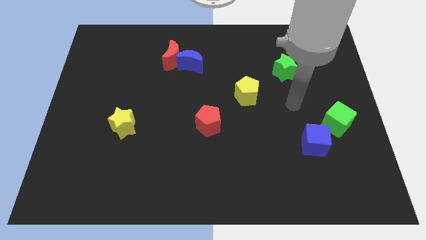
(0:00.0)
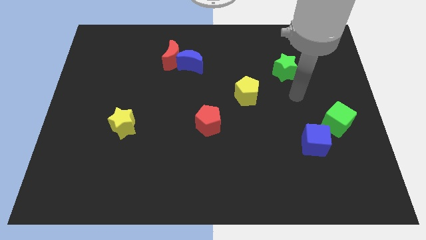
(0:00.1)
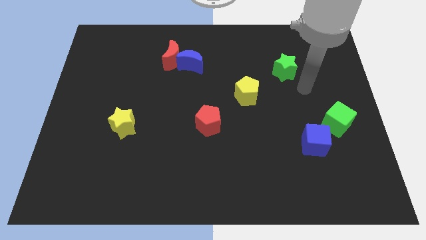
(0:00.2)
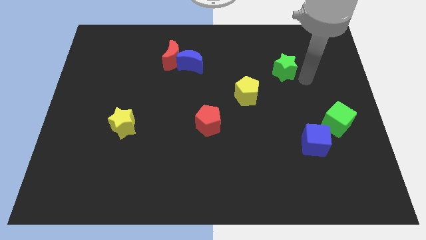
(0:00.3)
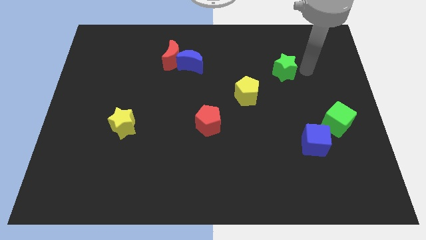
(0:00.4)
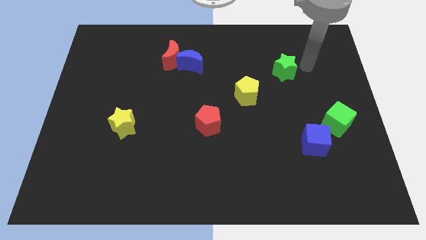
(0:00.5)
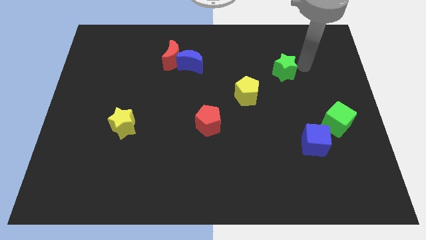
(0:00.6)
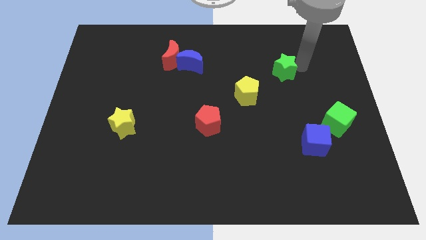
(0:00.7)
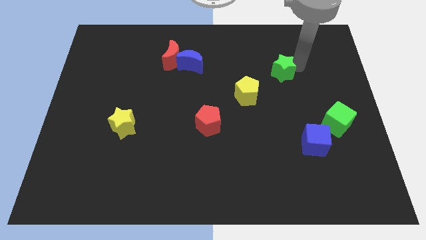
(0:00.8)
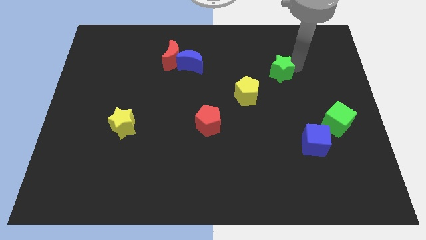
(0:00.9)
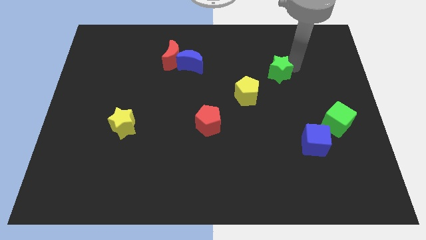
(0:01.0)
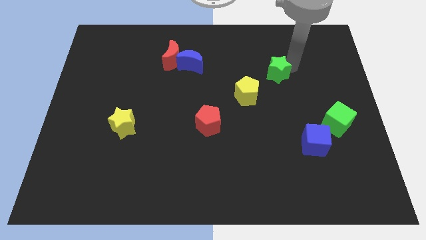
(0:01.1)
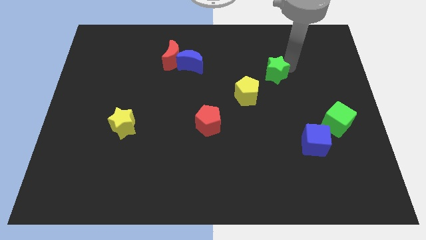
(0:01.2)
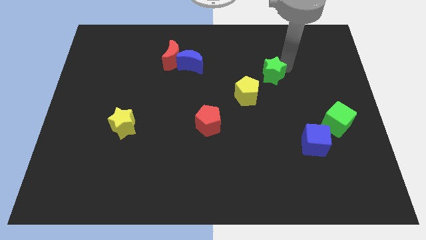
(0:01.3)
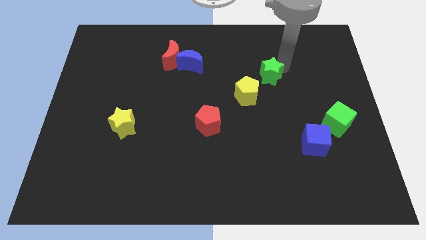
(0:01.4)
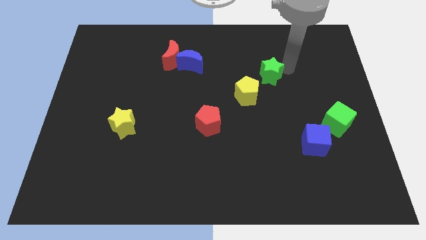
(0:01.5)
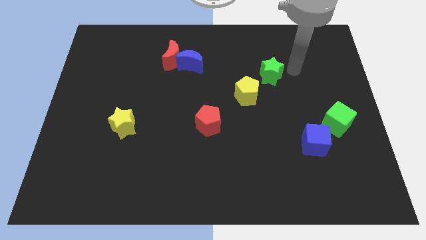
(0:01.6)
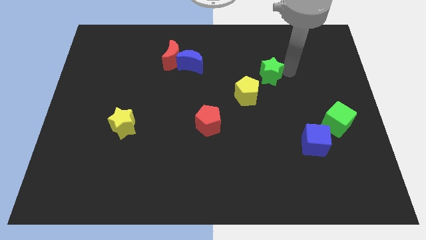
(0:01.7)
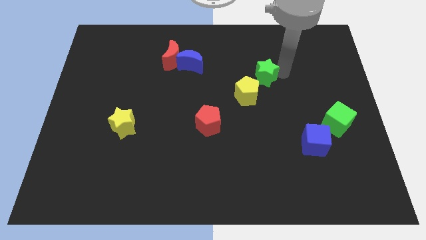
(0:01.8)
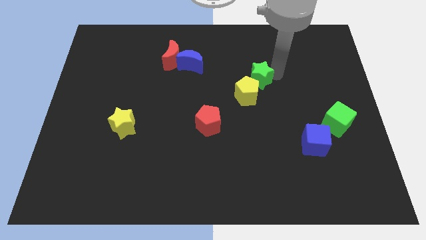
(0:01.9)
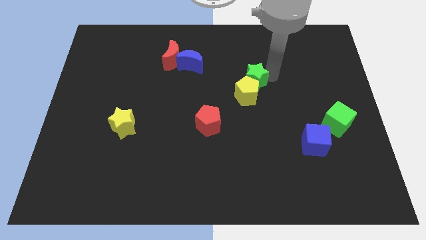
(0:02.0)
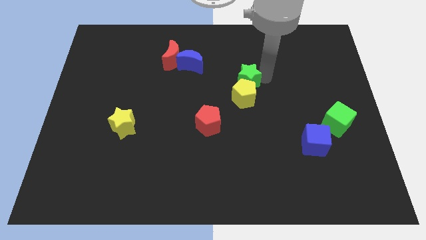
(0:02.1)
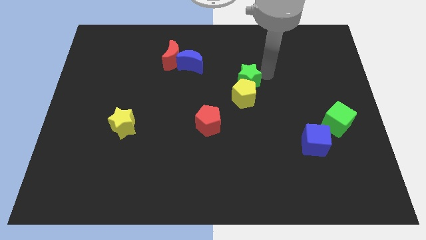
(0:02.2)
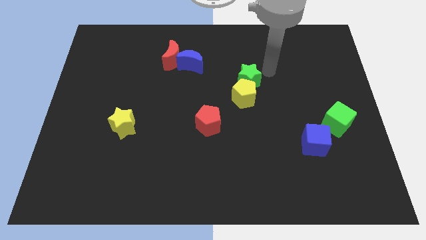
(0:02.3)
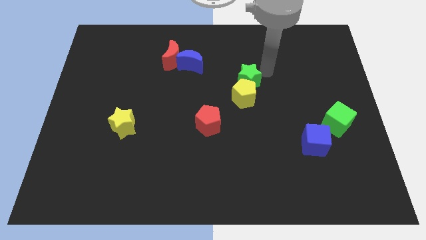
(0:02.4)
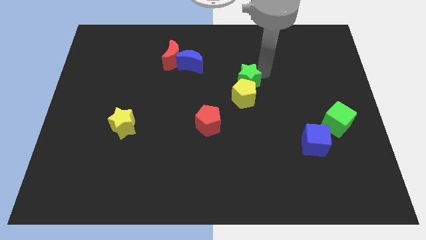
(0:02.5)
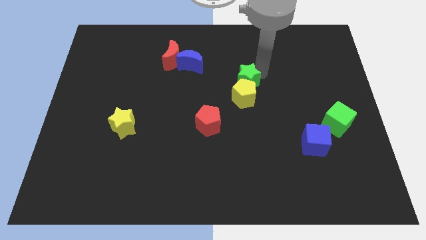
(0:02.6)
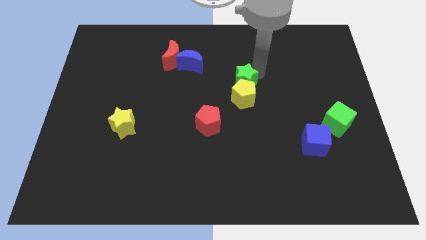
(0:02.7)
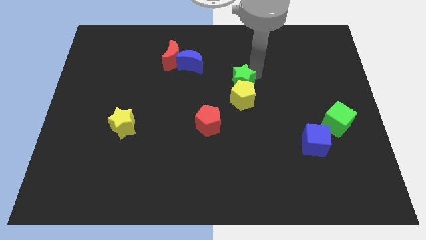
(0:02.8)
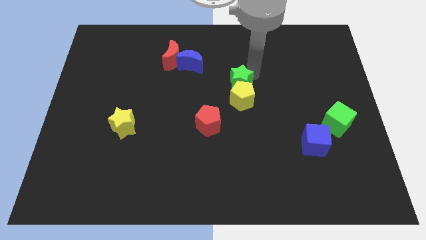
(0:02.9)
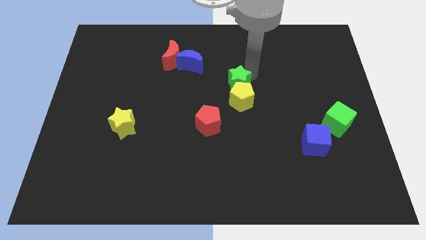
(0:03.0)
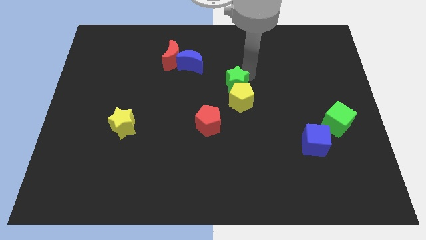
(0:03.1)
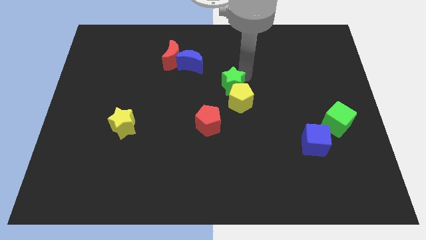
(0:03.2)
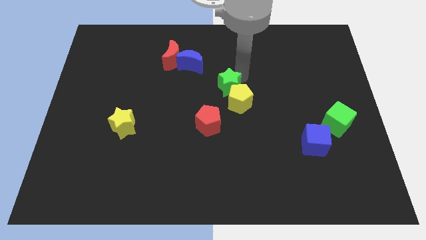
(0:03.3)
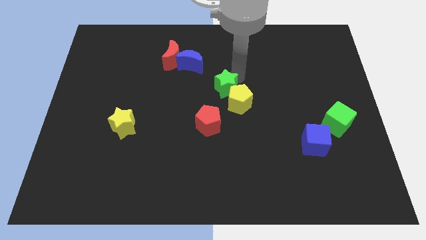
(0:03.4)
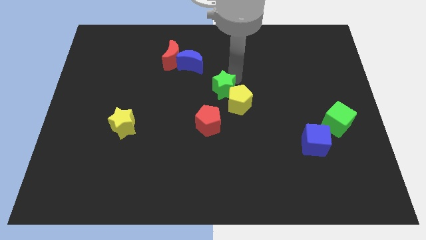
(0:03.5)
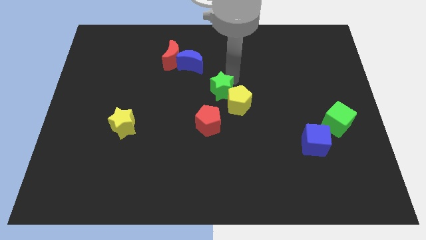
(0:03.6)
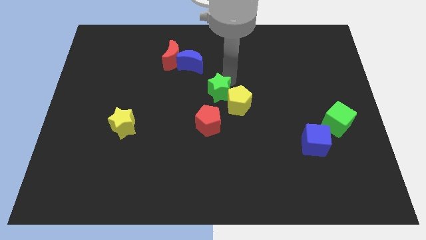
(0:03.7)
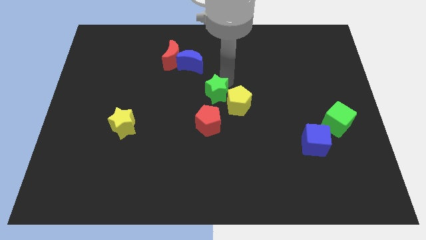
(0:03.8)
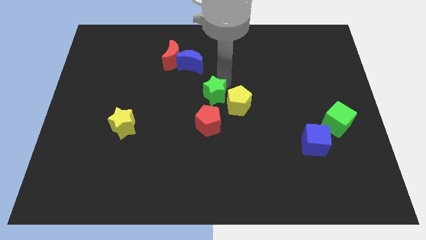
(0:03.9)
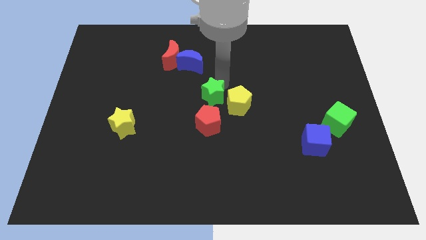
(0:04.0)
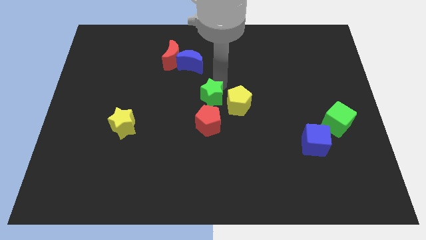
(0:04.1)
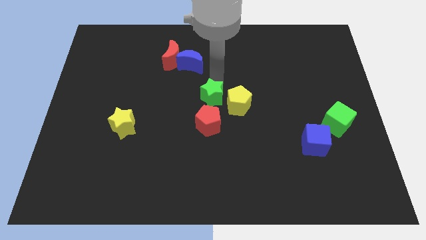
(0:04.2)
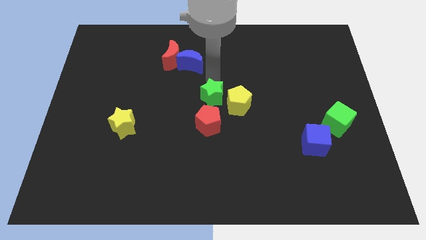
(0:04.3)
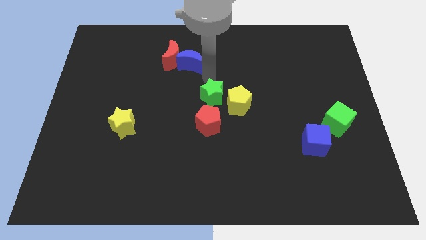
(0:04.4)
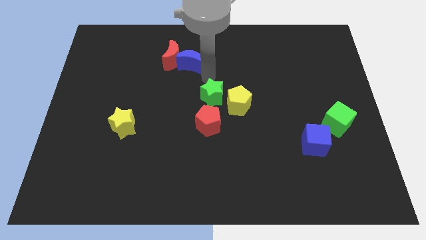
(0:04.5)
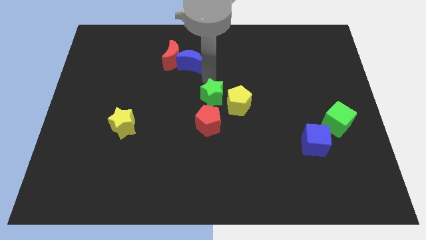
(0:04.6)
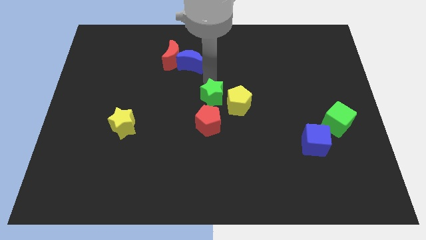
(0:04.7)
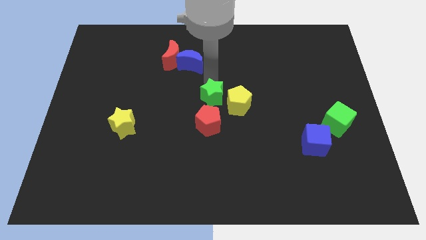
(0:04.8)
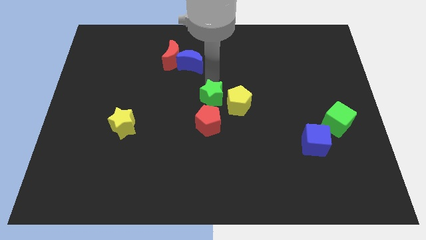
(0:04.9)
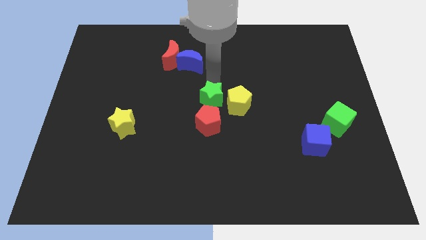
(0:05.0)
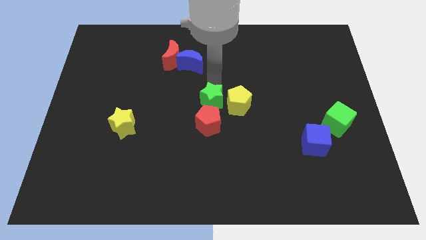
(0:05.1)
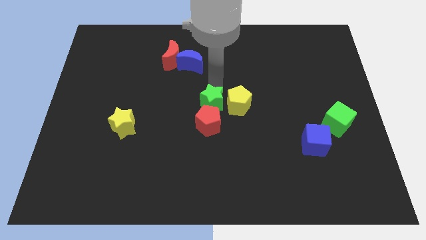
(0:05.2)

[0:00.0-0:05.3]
slide the green star to the red pentagon

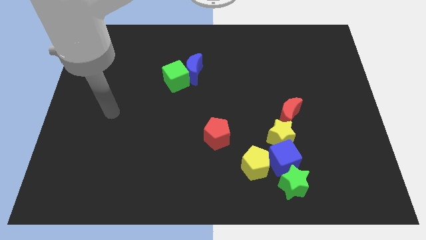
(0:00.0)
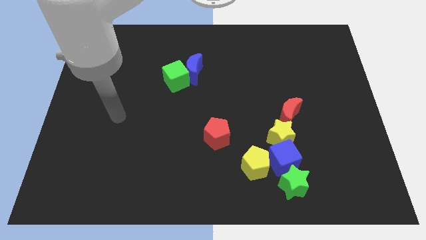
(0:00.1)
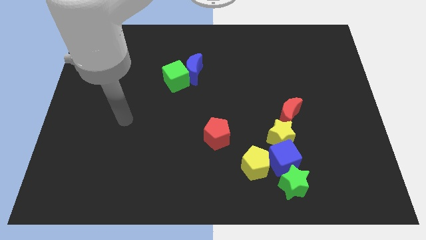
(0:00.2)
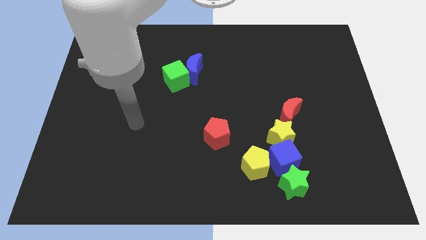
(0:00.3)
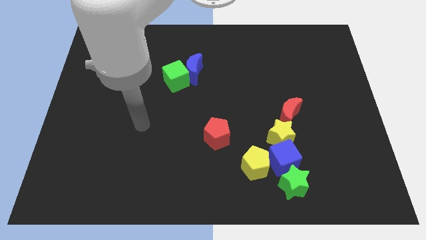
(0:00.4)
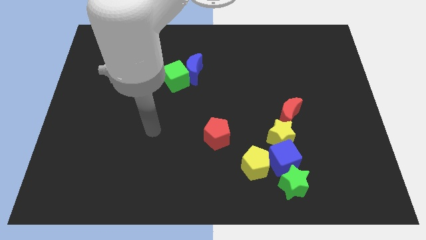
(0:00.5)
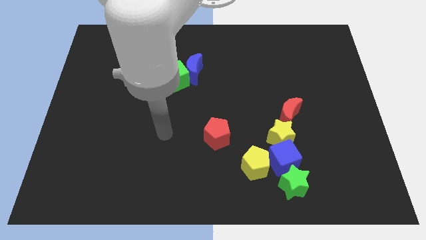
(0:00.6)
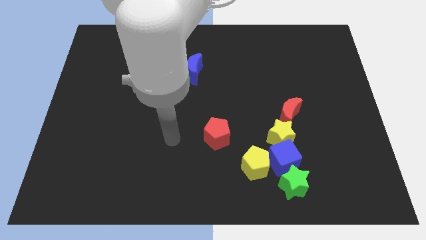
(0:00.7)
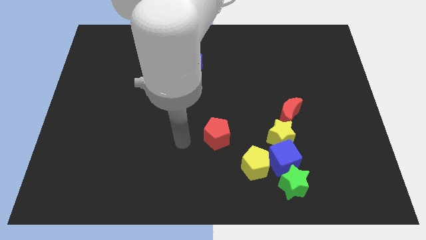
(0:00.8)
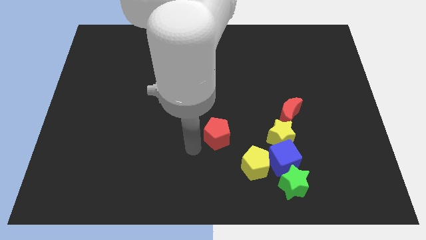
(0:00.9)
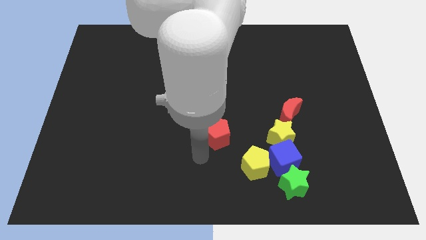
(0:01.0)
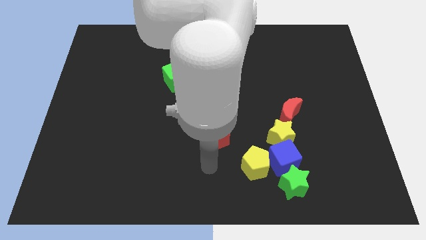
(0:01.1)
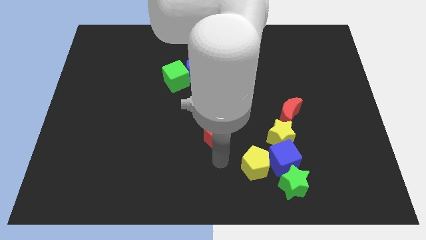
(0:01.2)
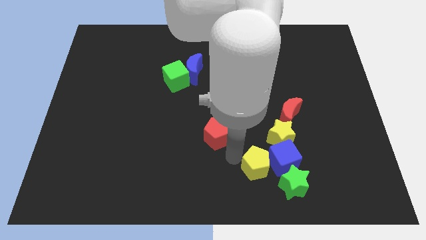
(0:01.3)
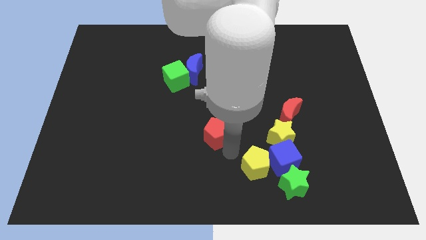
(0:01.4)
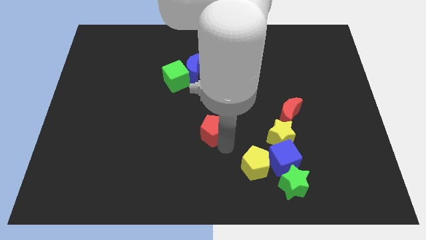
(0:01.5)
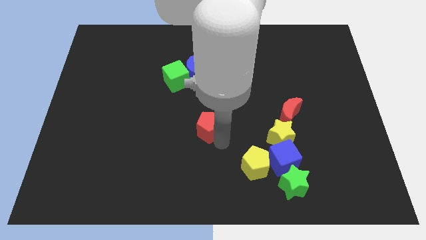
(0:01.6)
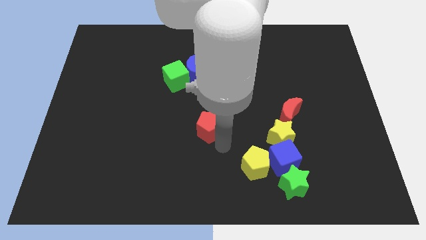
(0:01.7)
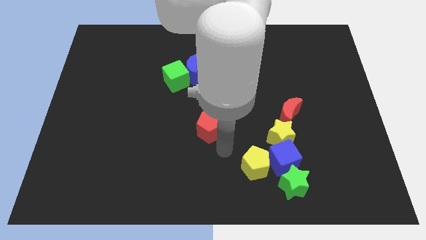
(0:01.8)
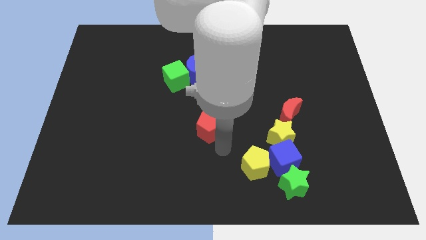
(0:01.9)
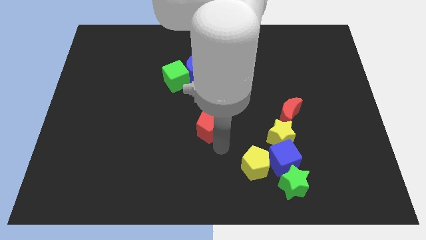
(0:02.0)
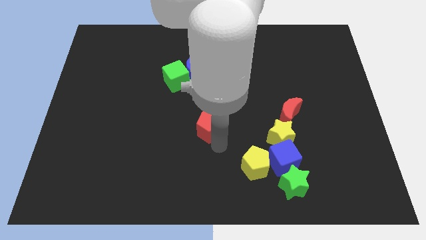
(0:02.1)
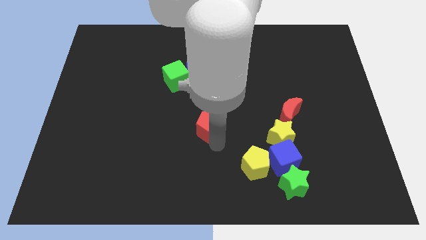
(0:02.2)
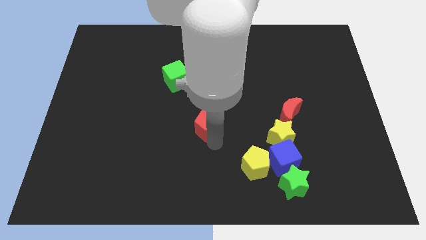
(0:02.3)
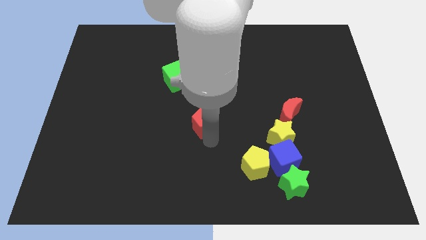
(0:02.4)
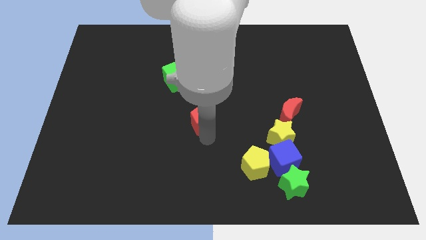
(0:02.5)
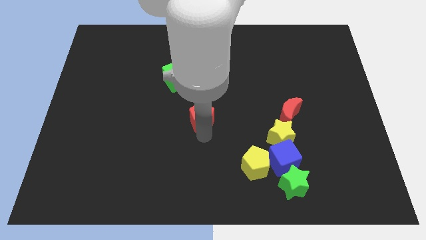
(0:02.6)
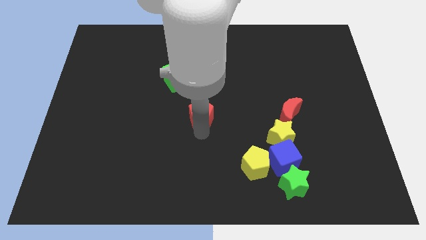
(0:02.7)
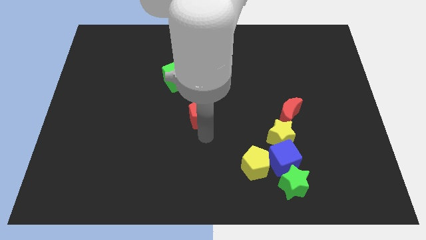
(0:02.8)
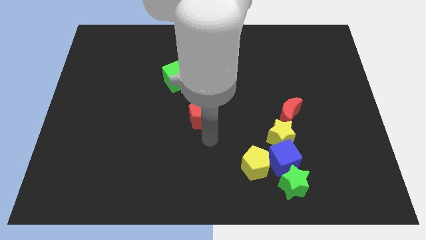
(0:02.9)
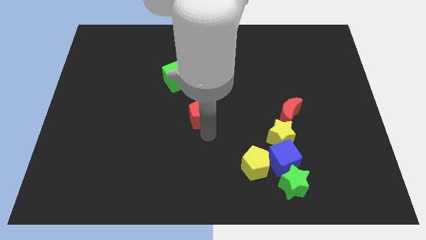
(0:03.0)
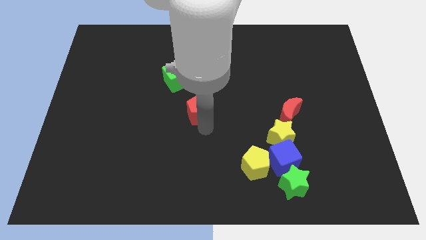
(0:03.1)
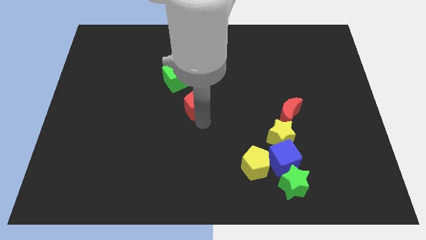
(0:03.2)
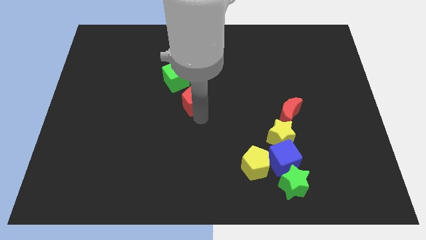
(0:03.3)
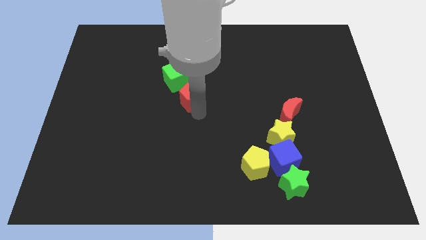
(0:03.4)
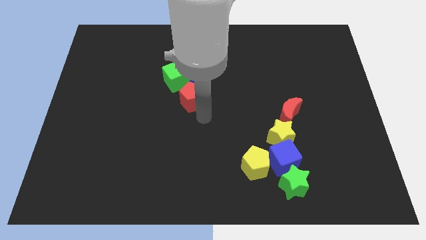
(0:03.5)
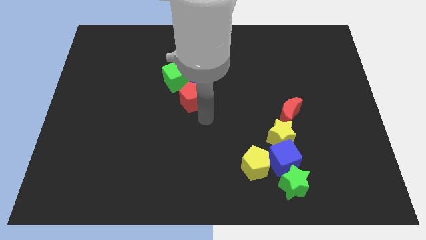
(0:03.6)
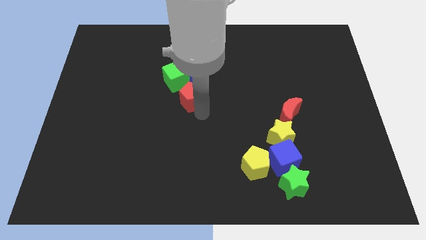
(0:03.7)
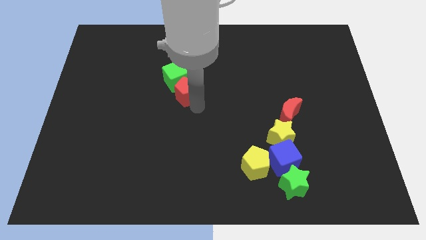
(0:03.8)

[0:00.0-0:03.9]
slide the red pentagon to the green cube
